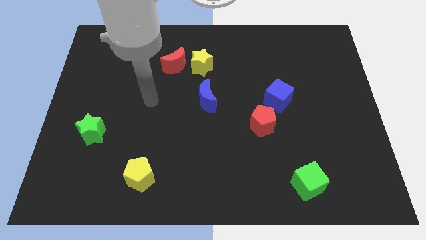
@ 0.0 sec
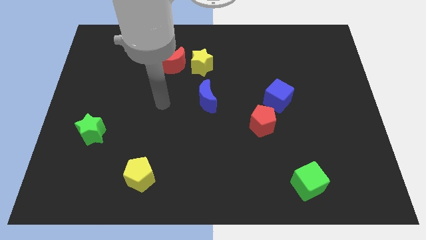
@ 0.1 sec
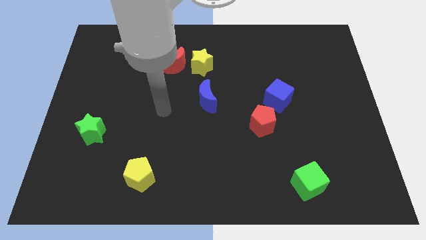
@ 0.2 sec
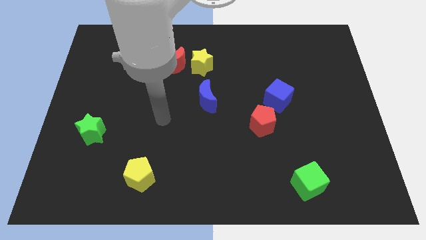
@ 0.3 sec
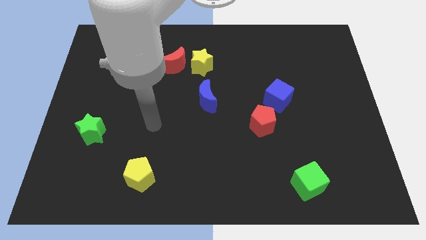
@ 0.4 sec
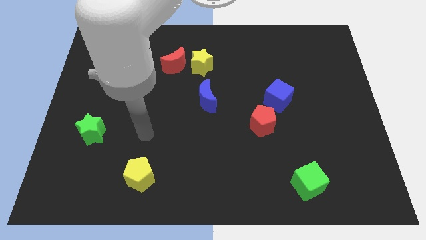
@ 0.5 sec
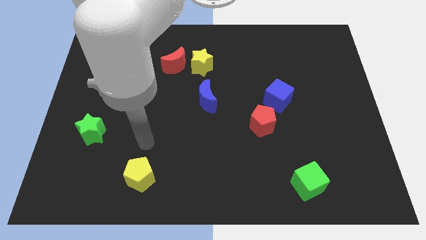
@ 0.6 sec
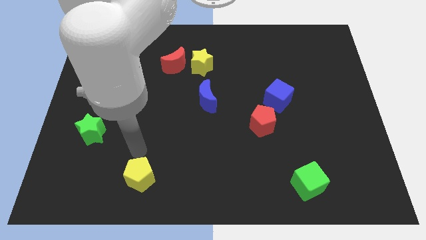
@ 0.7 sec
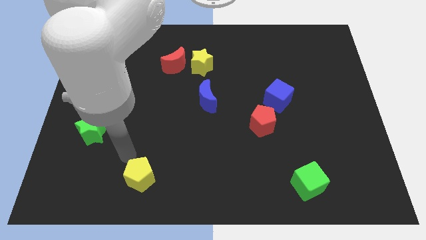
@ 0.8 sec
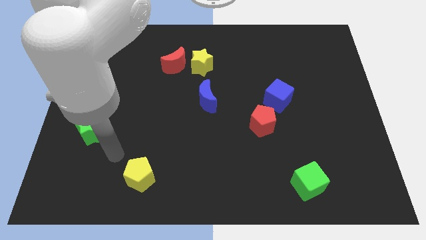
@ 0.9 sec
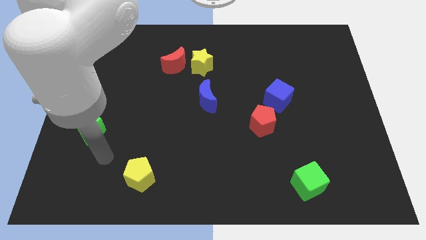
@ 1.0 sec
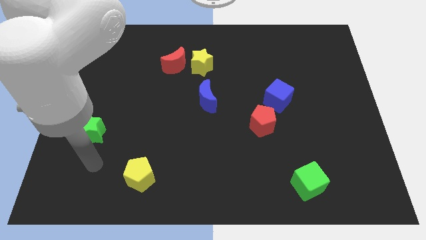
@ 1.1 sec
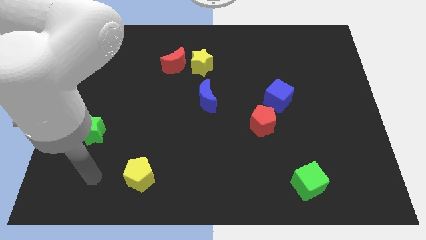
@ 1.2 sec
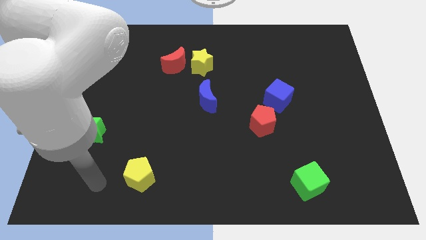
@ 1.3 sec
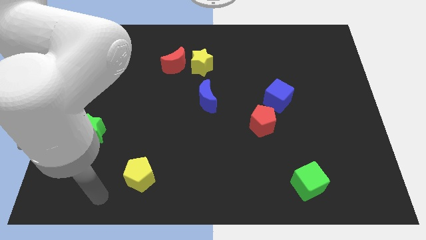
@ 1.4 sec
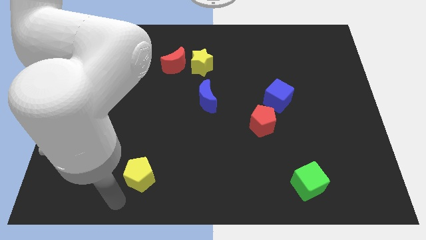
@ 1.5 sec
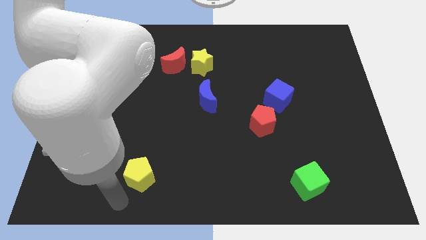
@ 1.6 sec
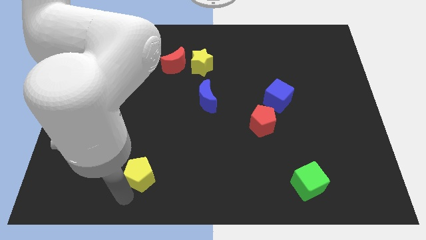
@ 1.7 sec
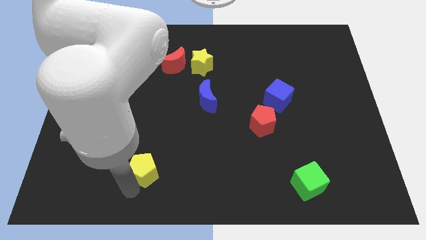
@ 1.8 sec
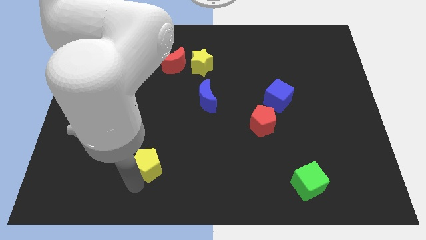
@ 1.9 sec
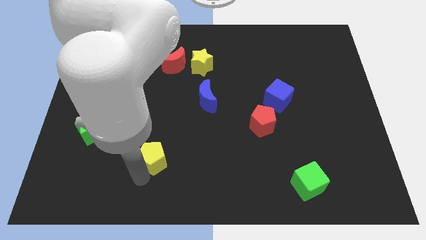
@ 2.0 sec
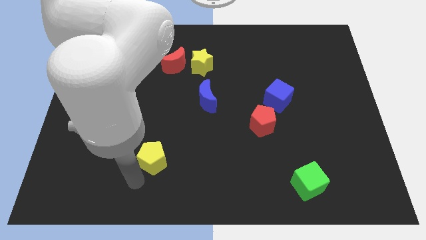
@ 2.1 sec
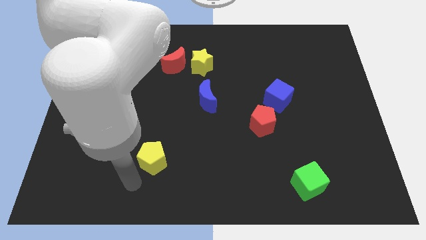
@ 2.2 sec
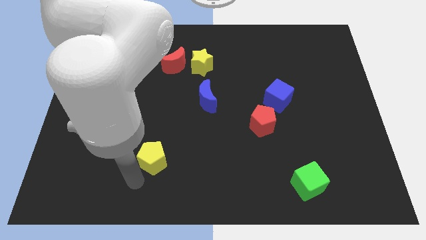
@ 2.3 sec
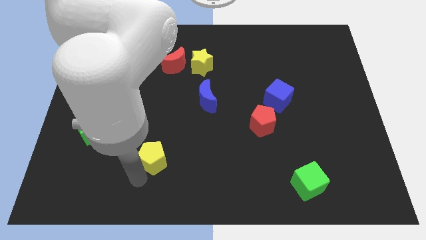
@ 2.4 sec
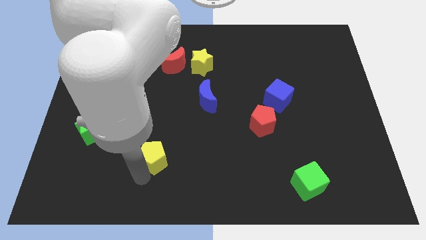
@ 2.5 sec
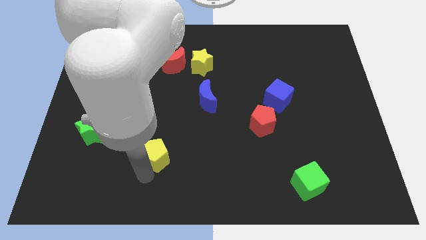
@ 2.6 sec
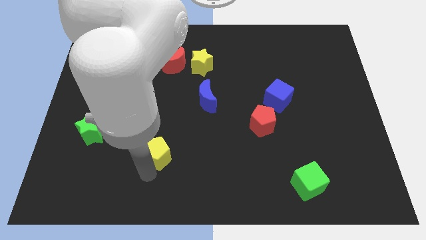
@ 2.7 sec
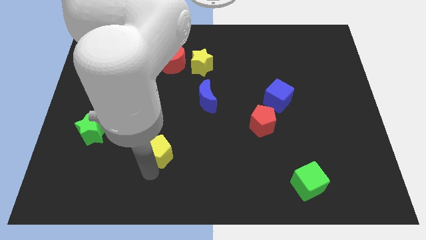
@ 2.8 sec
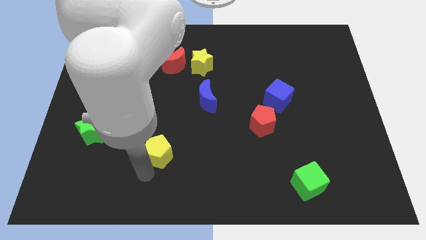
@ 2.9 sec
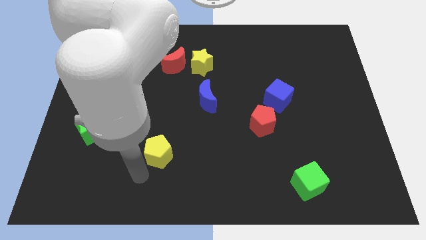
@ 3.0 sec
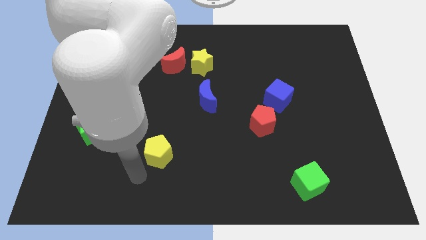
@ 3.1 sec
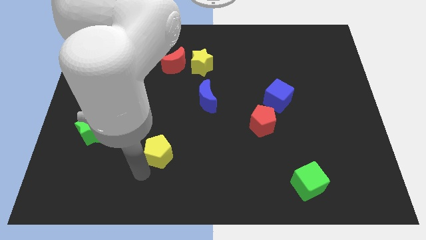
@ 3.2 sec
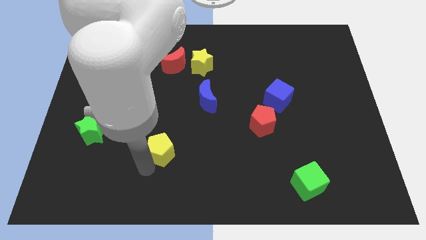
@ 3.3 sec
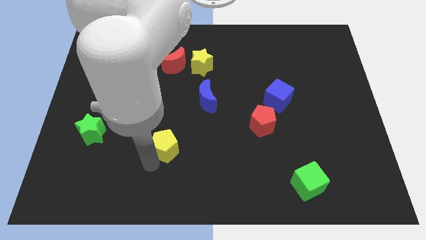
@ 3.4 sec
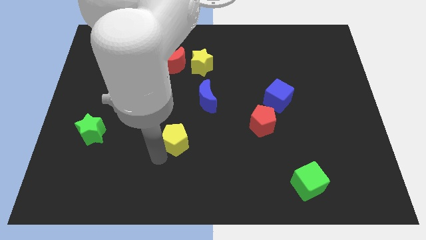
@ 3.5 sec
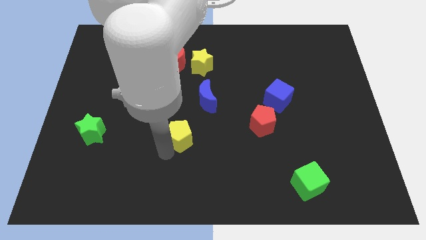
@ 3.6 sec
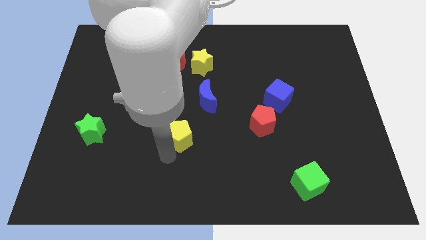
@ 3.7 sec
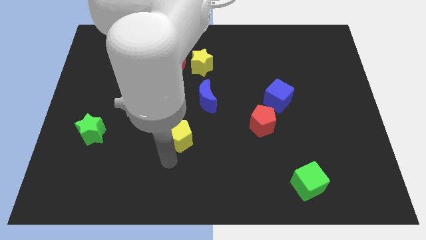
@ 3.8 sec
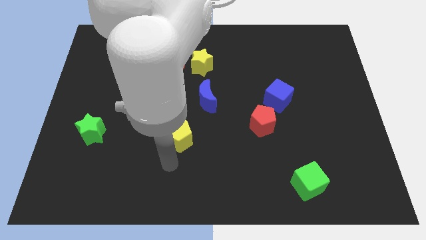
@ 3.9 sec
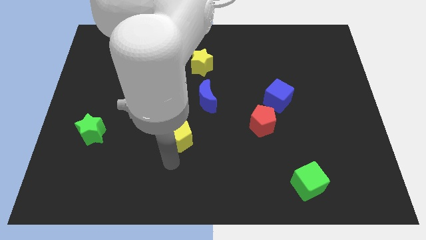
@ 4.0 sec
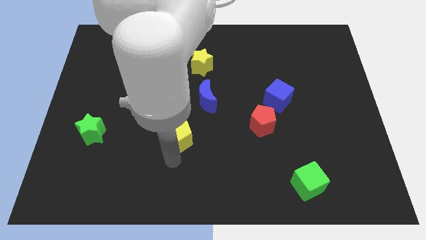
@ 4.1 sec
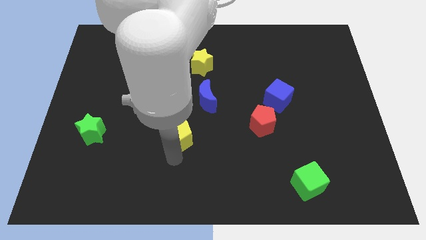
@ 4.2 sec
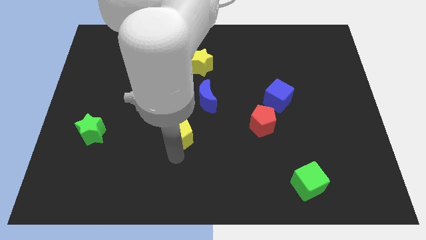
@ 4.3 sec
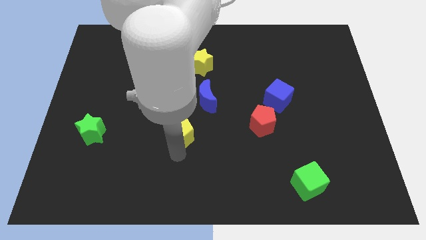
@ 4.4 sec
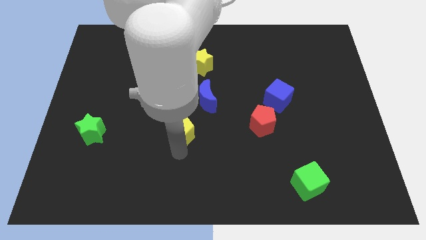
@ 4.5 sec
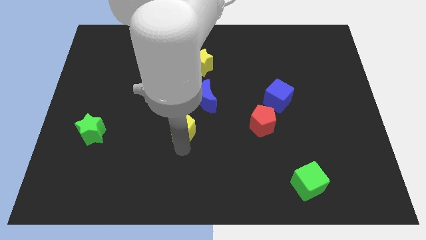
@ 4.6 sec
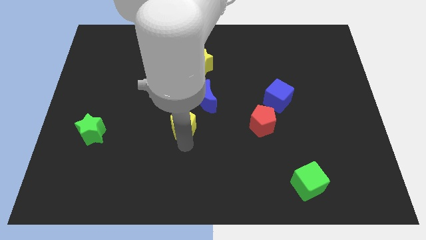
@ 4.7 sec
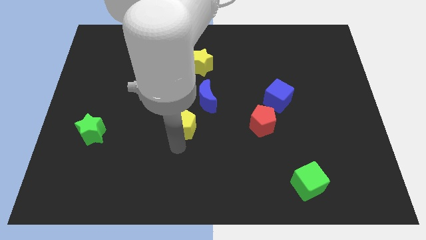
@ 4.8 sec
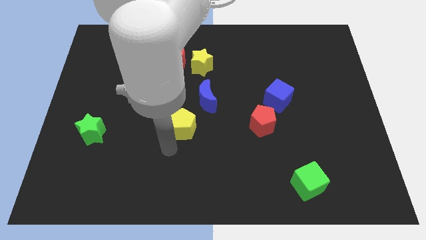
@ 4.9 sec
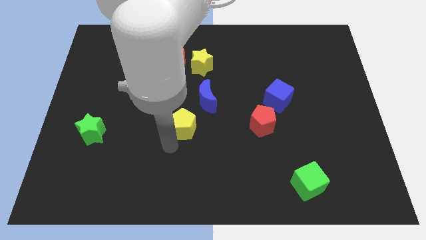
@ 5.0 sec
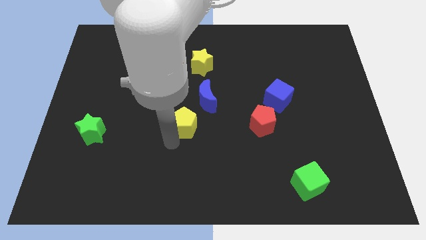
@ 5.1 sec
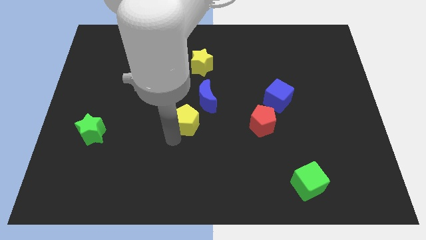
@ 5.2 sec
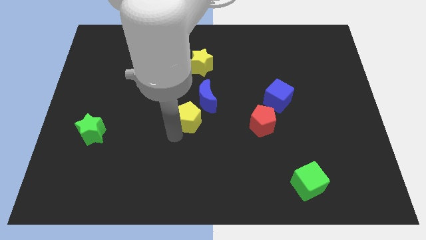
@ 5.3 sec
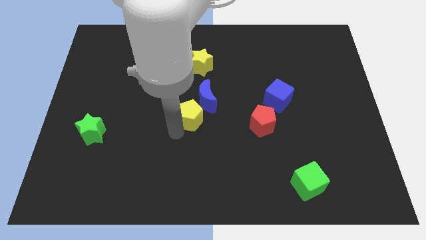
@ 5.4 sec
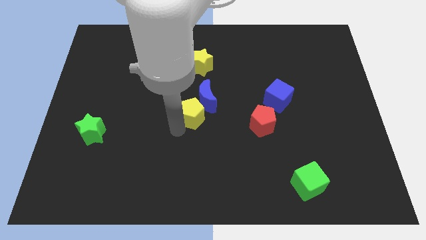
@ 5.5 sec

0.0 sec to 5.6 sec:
slide the yellow pentagon next to the blue moon

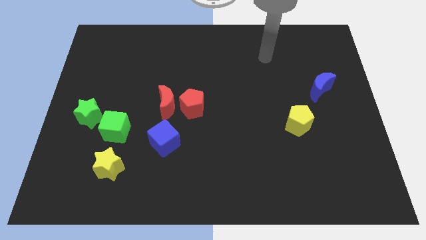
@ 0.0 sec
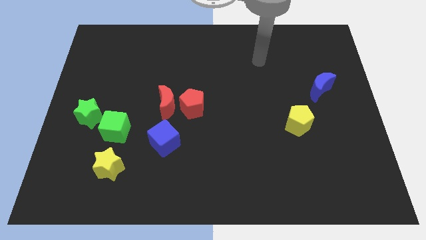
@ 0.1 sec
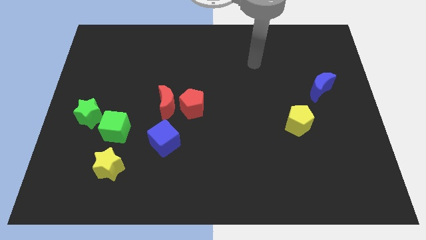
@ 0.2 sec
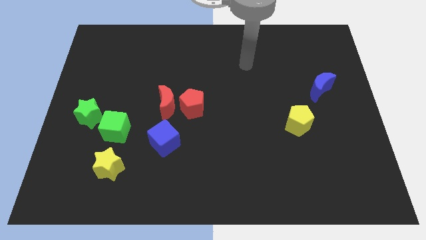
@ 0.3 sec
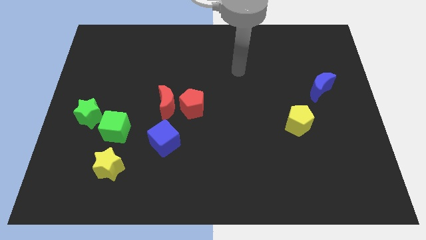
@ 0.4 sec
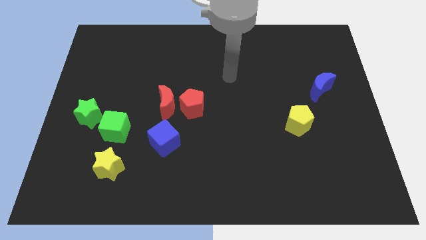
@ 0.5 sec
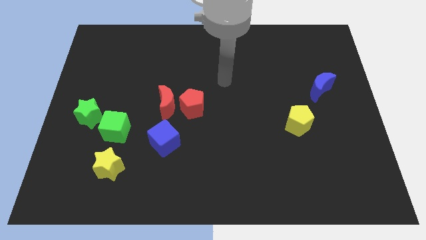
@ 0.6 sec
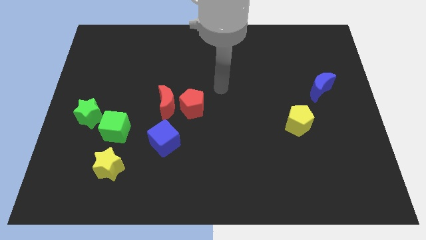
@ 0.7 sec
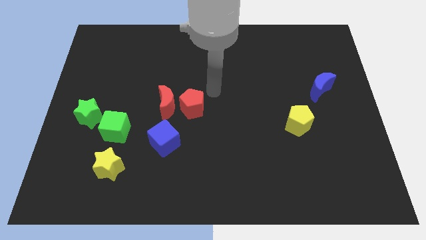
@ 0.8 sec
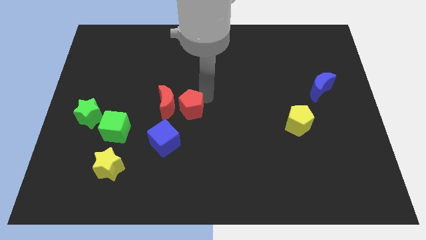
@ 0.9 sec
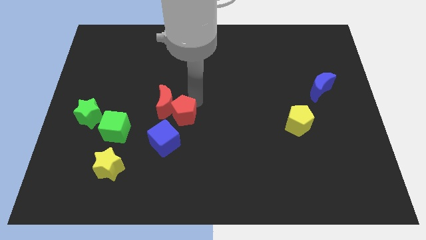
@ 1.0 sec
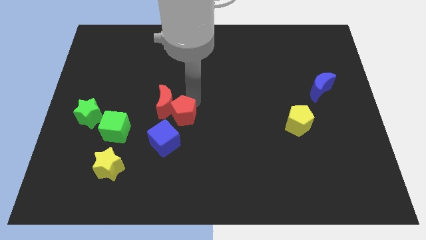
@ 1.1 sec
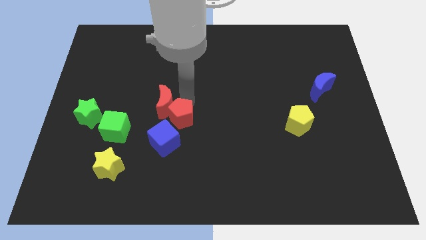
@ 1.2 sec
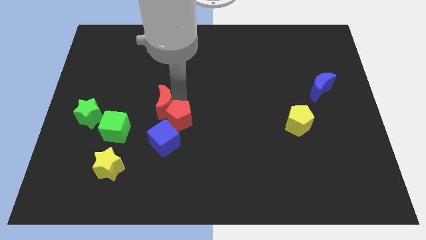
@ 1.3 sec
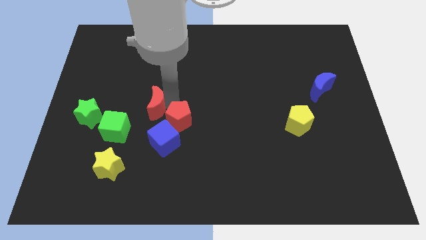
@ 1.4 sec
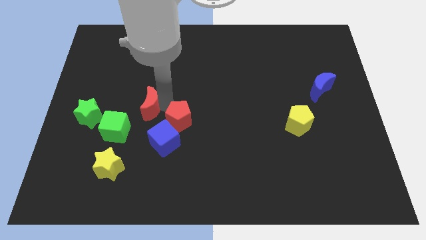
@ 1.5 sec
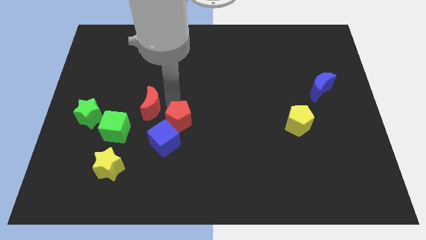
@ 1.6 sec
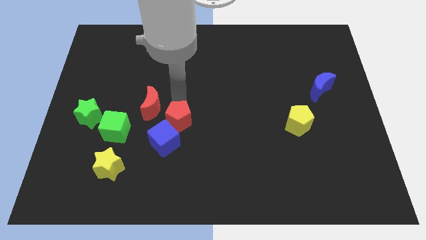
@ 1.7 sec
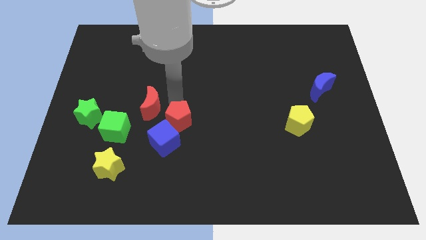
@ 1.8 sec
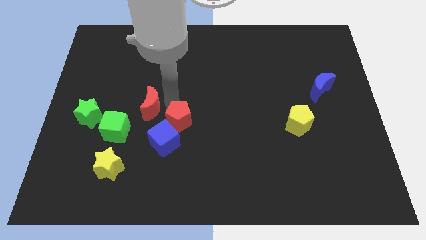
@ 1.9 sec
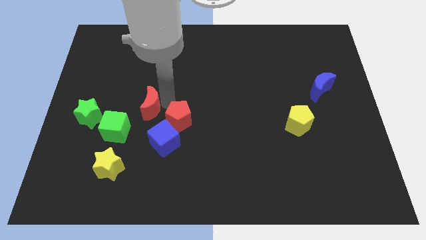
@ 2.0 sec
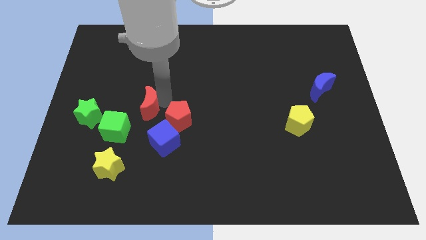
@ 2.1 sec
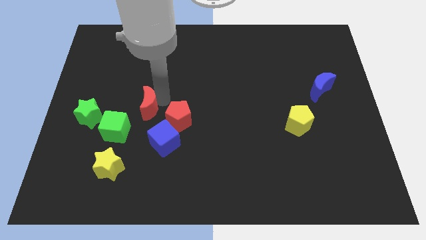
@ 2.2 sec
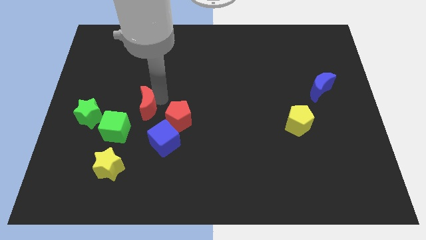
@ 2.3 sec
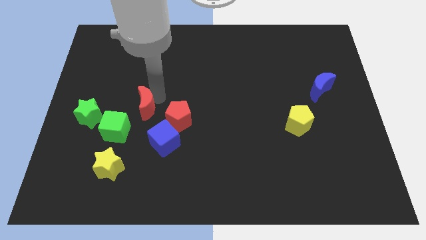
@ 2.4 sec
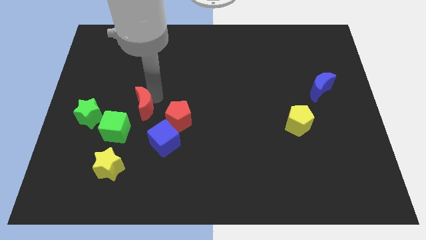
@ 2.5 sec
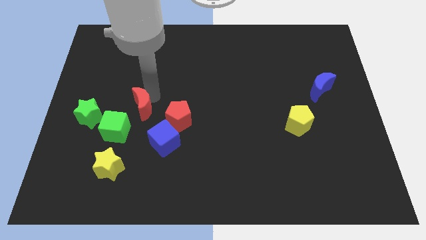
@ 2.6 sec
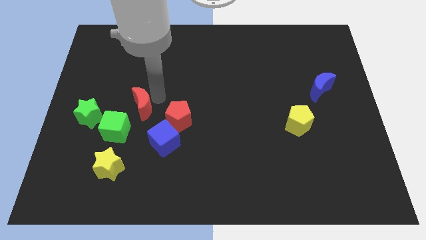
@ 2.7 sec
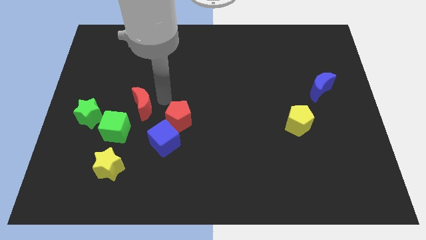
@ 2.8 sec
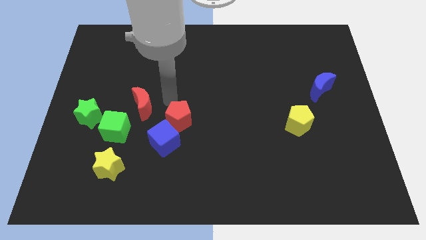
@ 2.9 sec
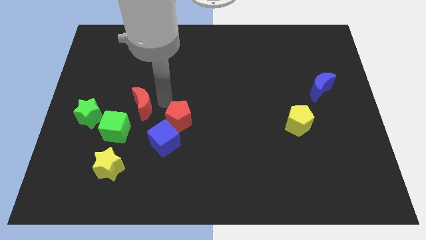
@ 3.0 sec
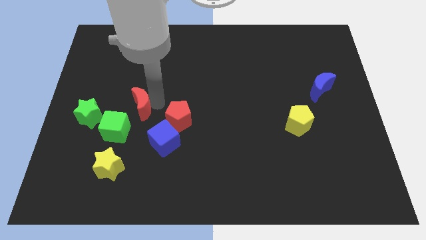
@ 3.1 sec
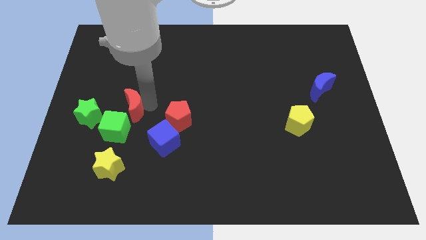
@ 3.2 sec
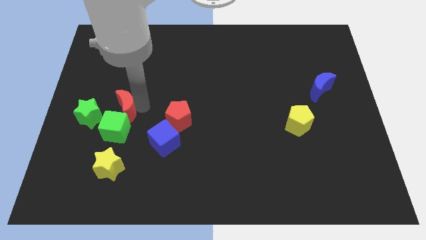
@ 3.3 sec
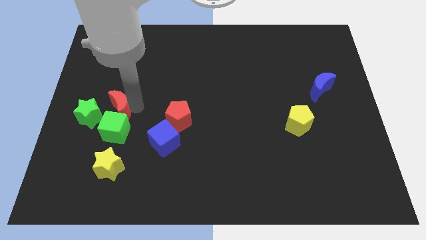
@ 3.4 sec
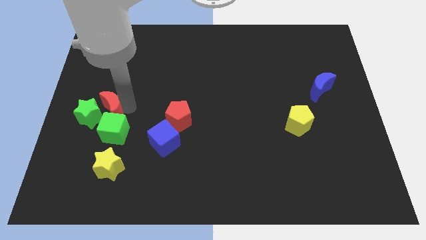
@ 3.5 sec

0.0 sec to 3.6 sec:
move the red moon to the green star
